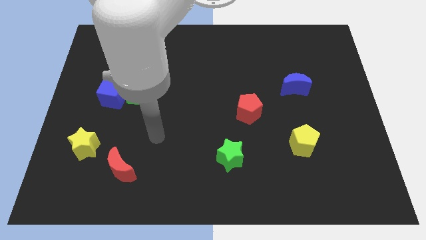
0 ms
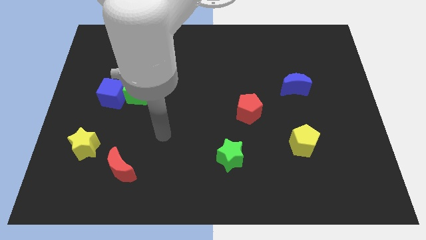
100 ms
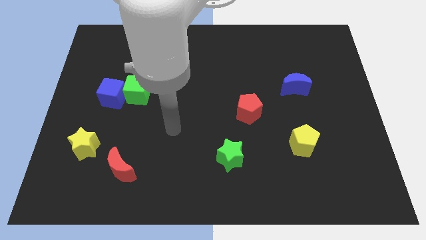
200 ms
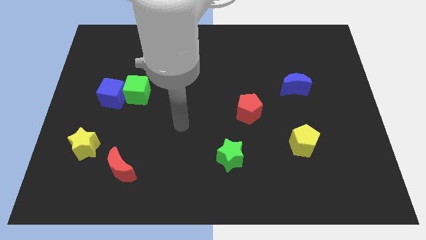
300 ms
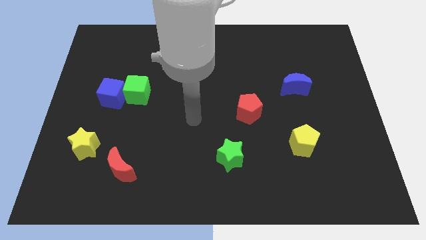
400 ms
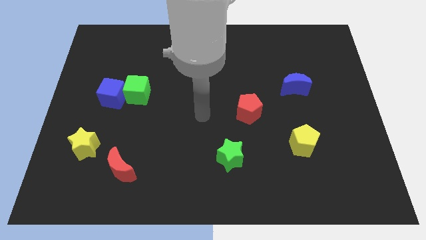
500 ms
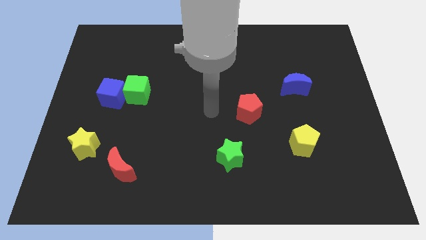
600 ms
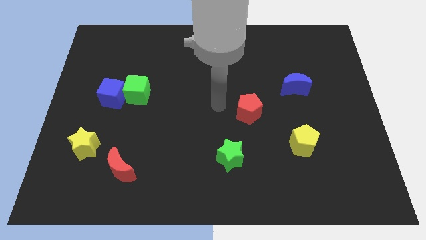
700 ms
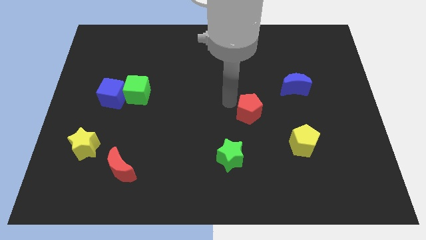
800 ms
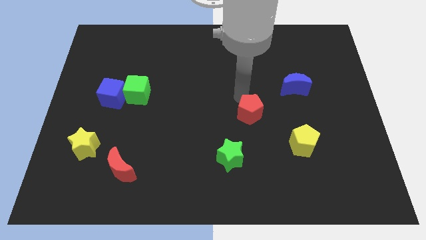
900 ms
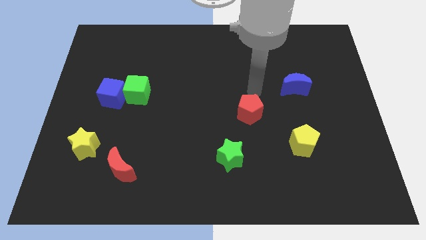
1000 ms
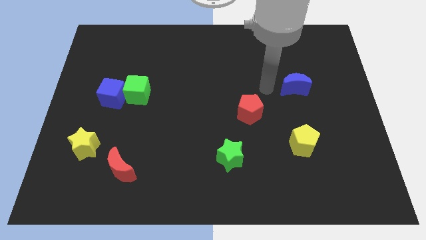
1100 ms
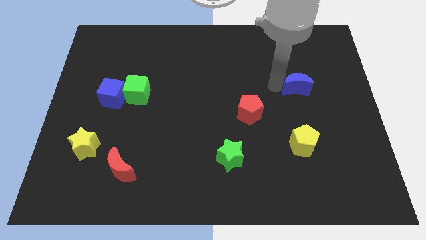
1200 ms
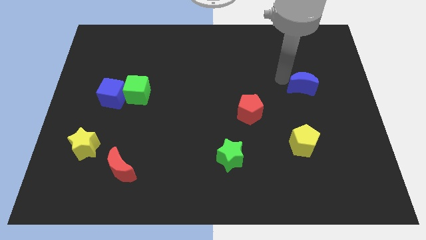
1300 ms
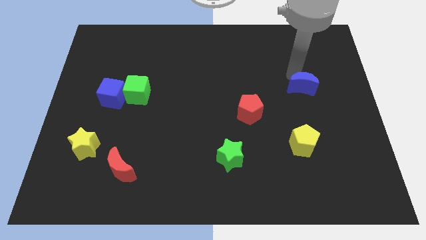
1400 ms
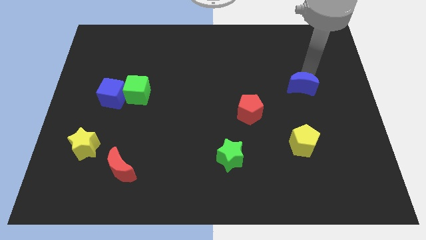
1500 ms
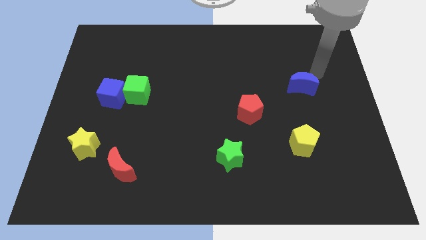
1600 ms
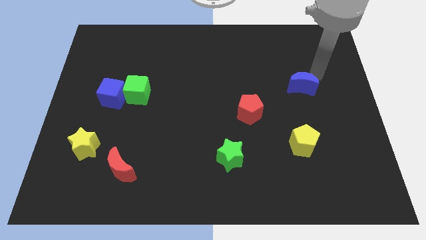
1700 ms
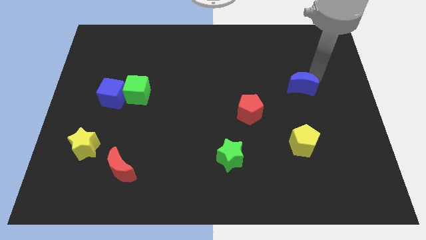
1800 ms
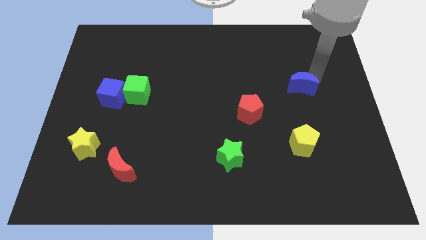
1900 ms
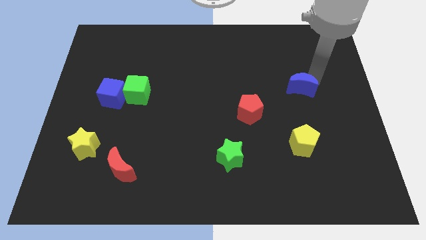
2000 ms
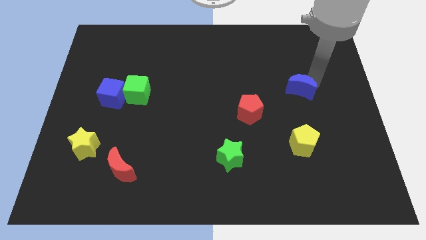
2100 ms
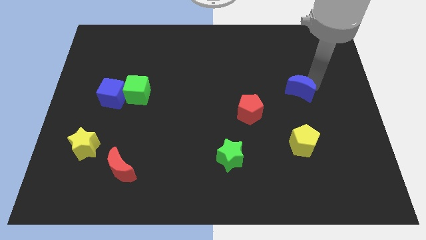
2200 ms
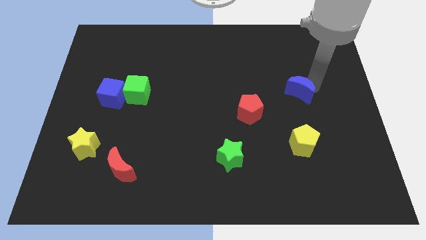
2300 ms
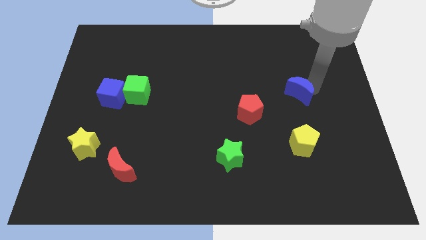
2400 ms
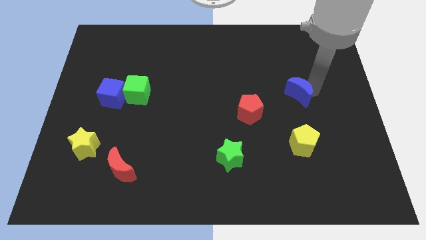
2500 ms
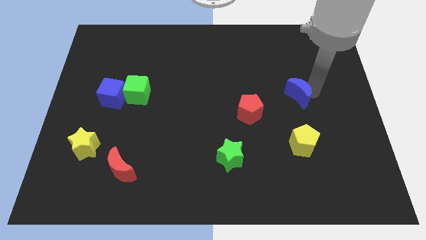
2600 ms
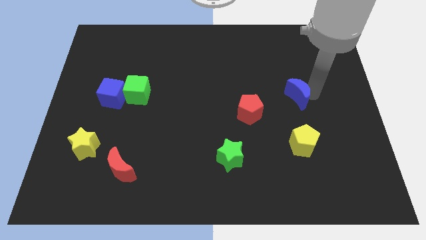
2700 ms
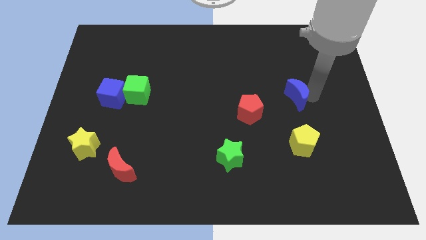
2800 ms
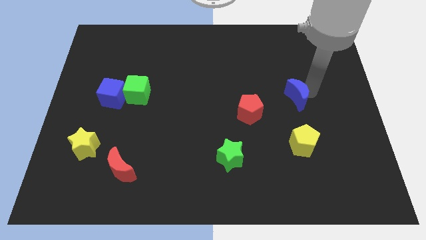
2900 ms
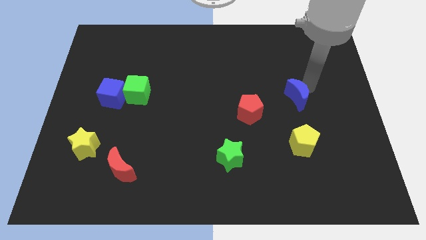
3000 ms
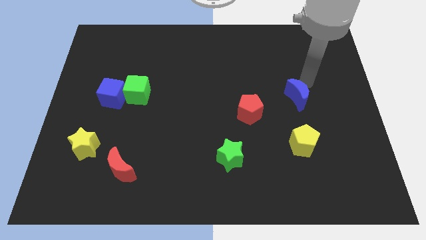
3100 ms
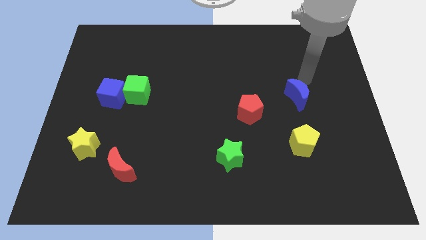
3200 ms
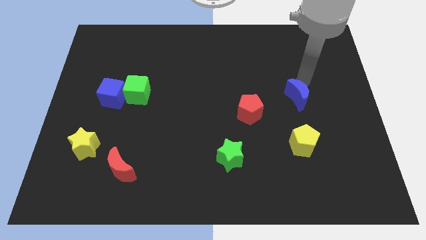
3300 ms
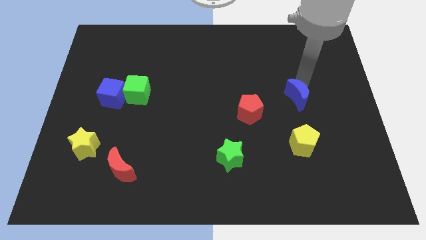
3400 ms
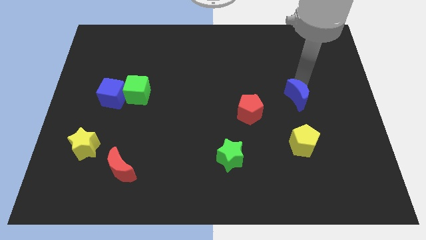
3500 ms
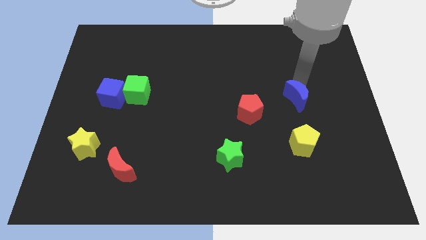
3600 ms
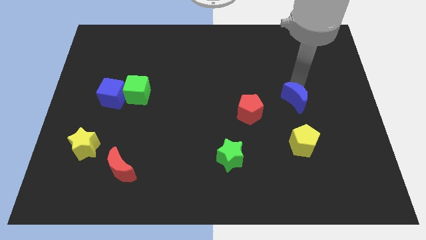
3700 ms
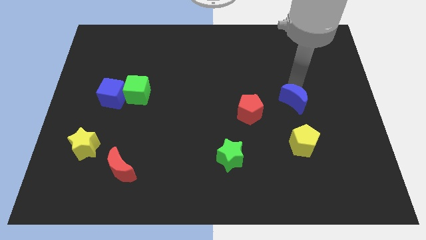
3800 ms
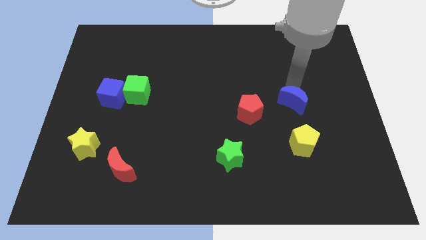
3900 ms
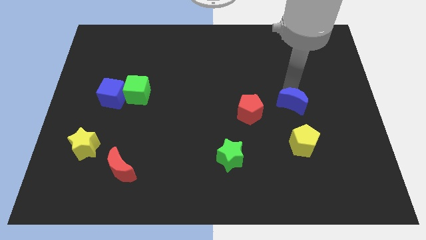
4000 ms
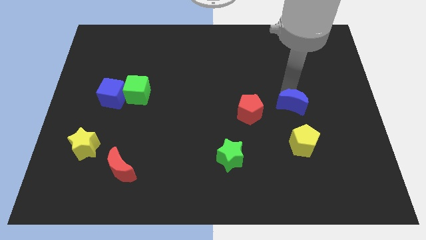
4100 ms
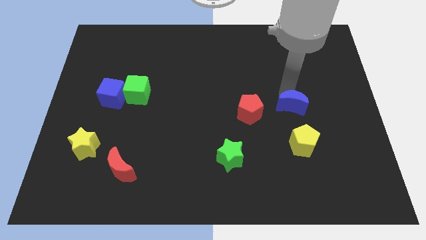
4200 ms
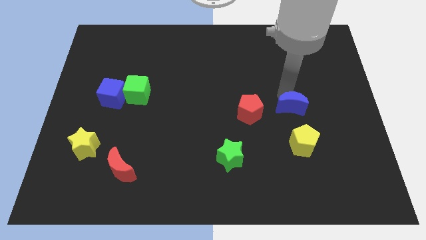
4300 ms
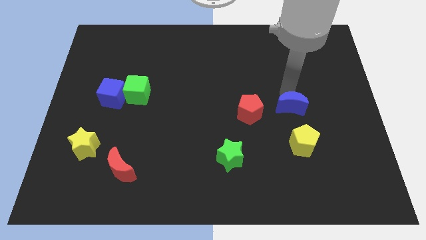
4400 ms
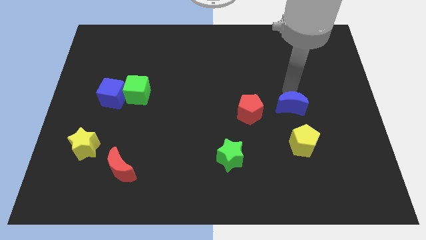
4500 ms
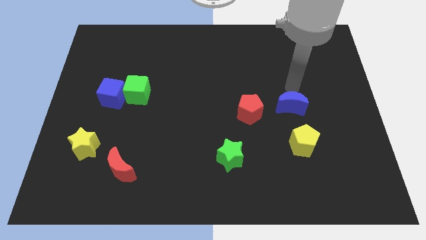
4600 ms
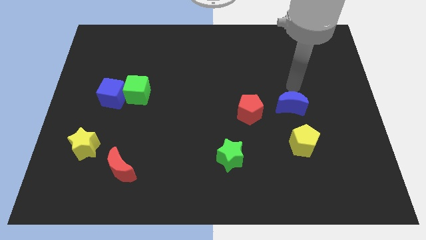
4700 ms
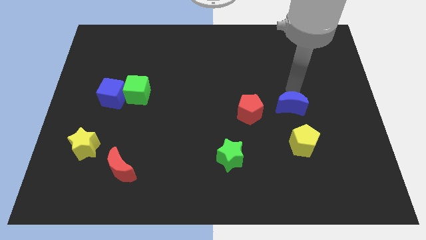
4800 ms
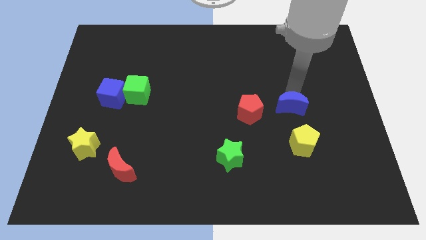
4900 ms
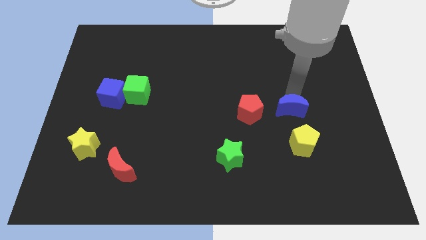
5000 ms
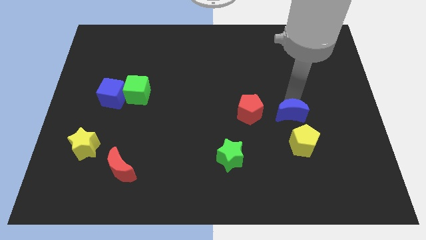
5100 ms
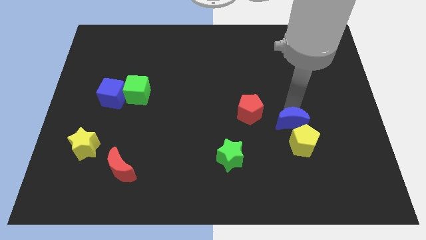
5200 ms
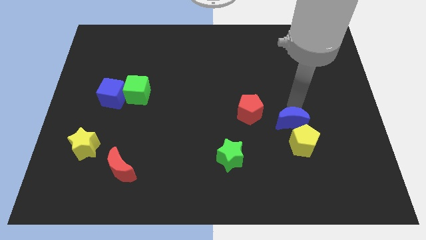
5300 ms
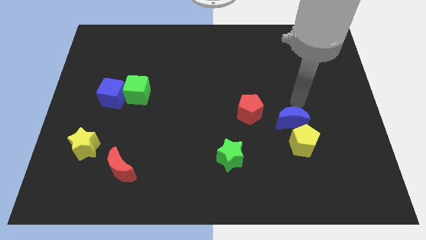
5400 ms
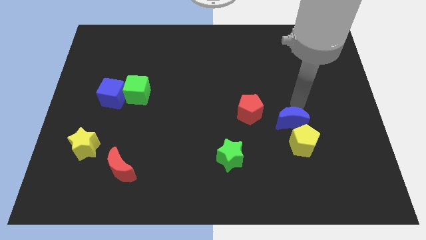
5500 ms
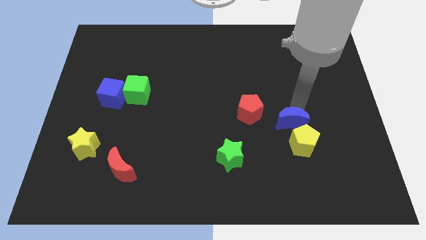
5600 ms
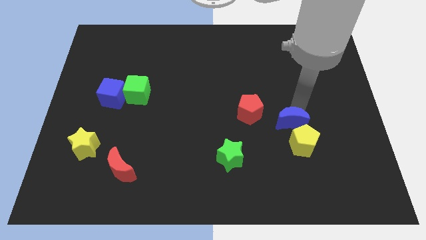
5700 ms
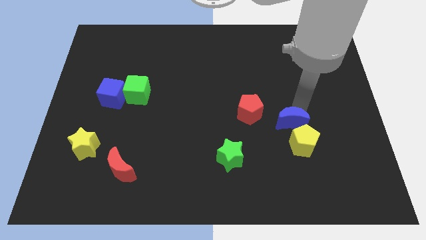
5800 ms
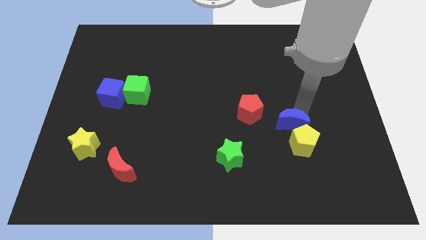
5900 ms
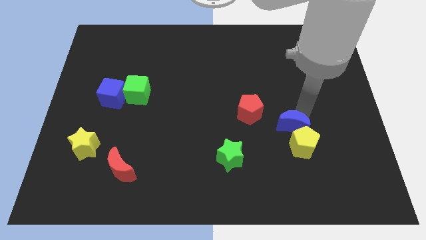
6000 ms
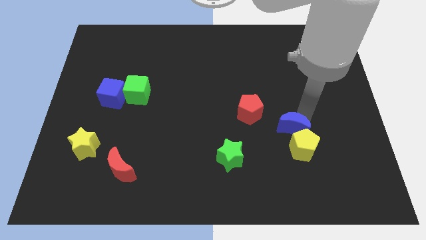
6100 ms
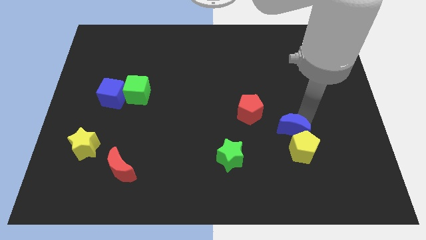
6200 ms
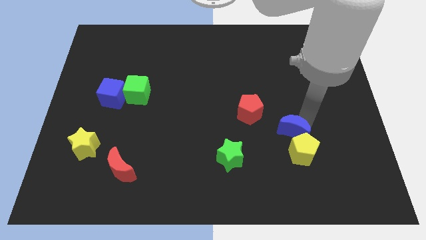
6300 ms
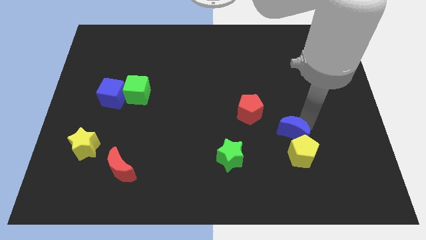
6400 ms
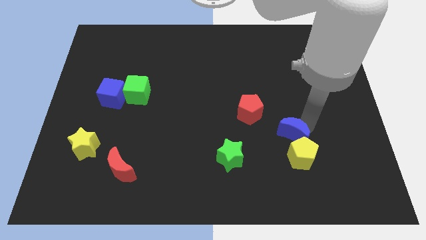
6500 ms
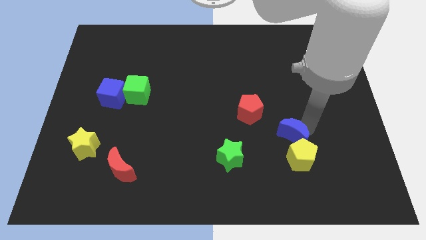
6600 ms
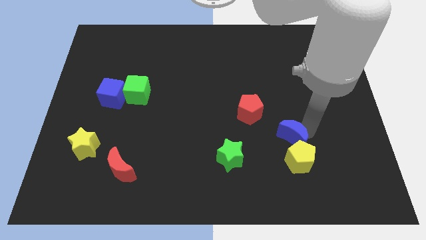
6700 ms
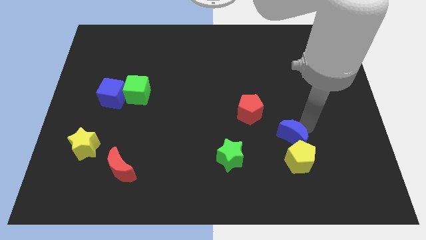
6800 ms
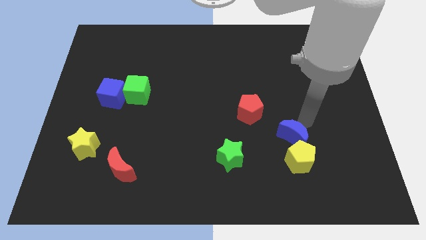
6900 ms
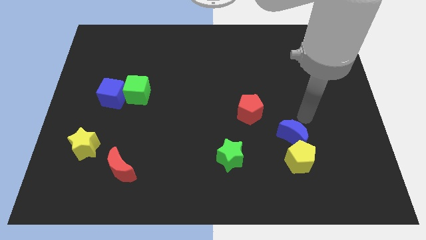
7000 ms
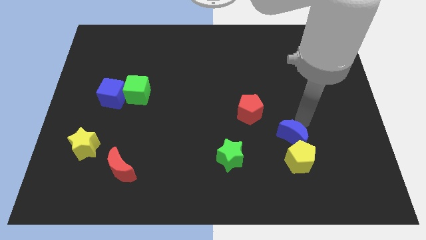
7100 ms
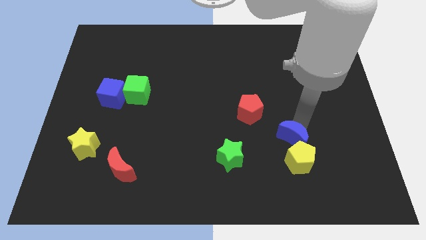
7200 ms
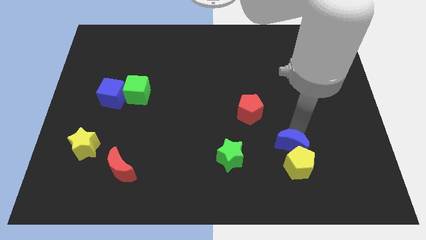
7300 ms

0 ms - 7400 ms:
slide the blue moon to the right side of the green star
